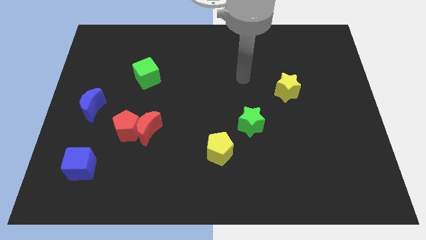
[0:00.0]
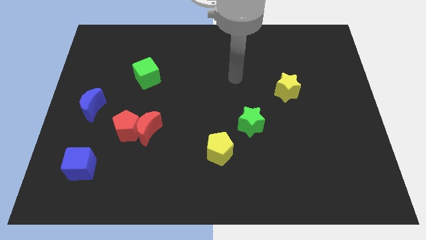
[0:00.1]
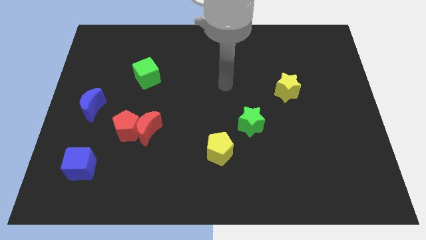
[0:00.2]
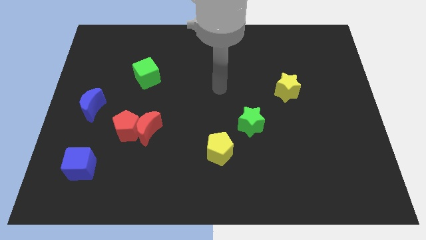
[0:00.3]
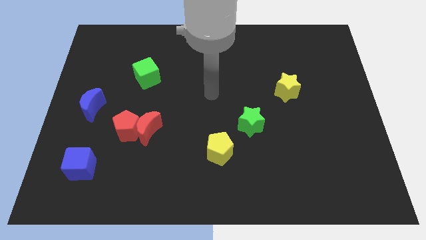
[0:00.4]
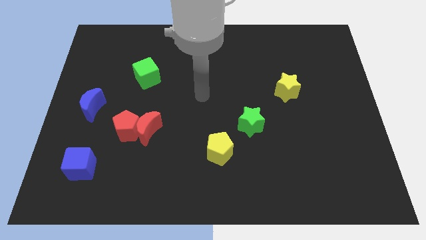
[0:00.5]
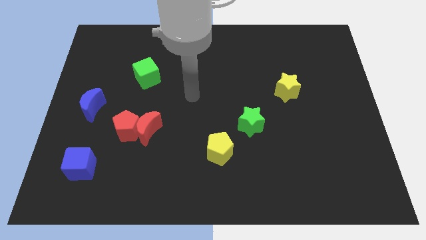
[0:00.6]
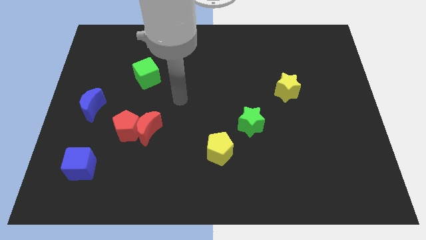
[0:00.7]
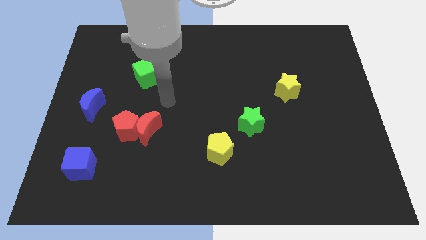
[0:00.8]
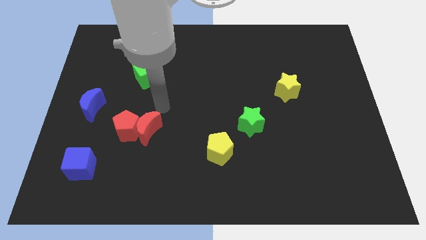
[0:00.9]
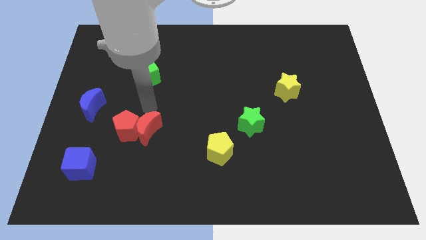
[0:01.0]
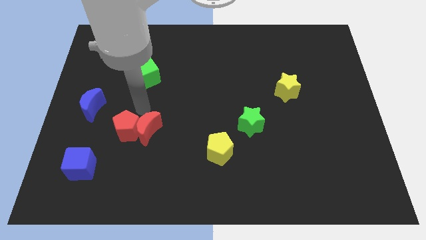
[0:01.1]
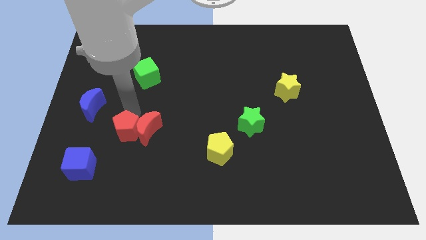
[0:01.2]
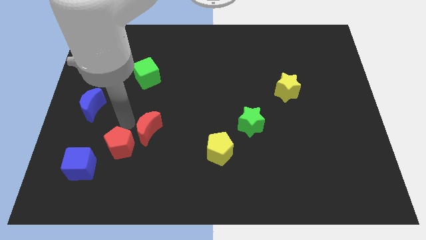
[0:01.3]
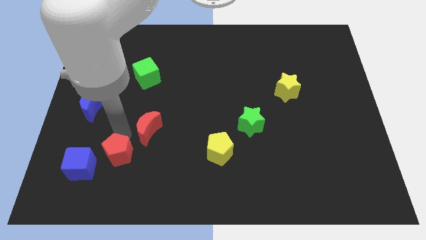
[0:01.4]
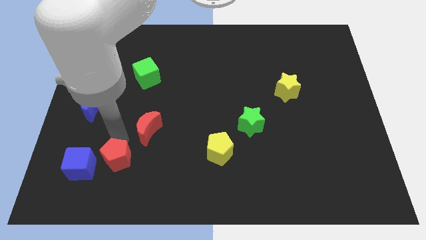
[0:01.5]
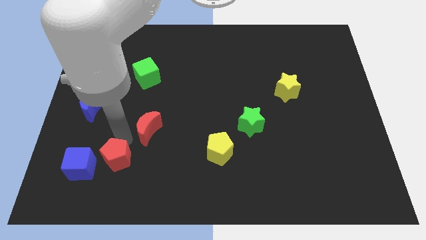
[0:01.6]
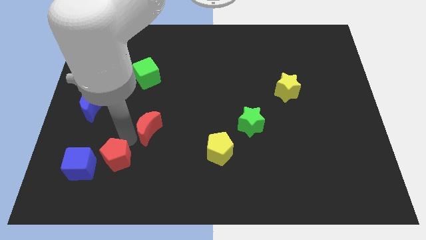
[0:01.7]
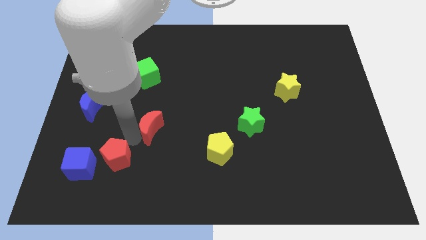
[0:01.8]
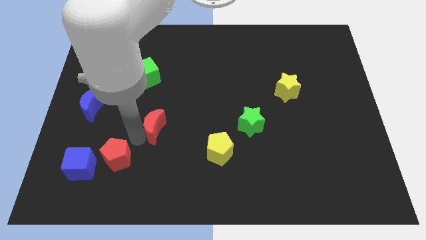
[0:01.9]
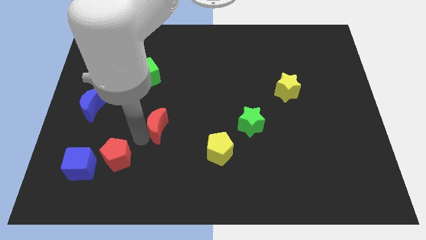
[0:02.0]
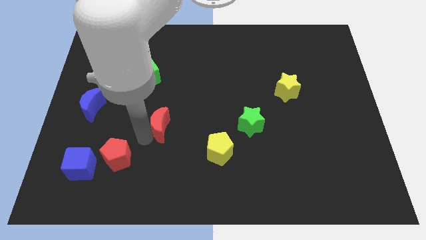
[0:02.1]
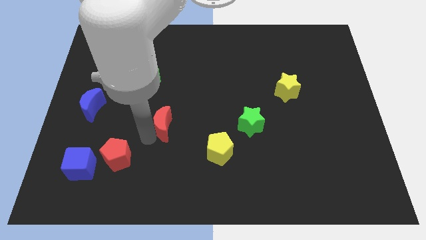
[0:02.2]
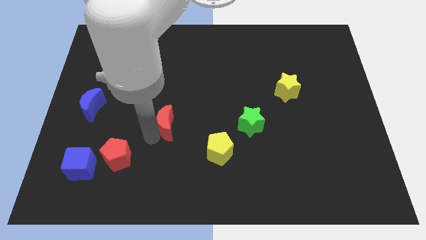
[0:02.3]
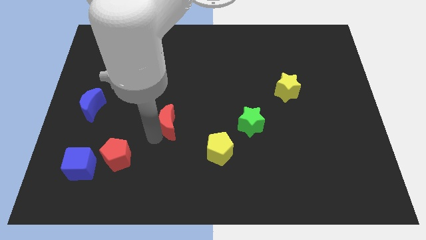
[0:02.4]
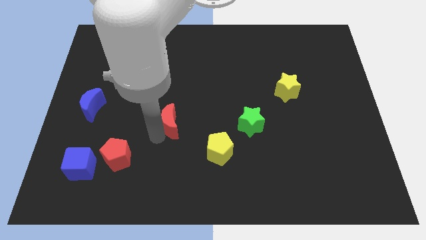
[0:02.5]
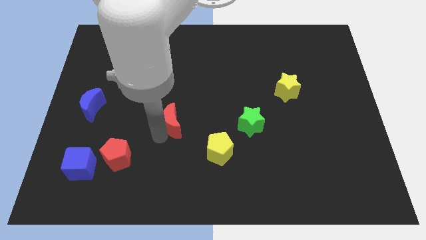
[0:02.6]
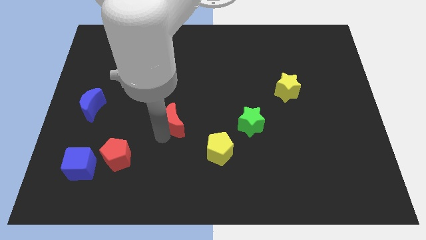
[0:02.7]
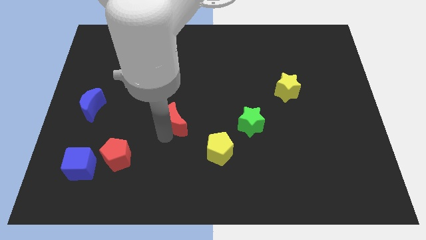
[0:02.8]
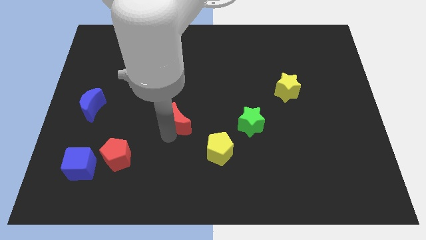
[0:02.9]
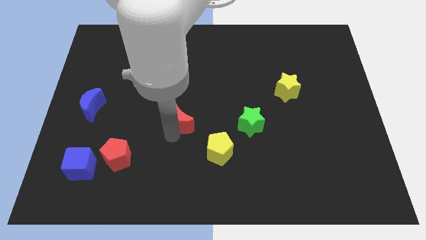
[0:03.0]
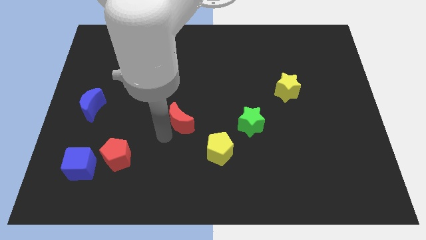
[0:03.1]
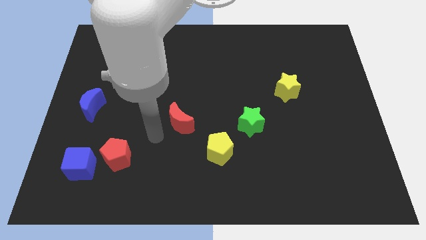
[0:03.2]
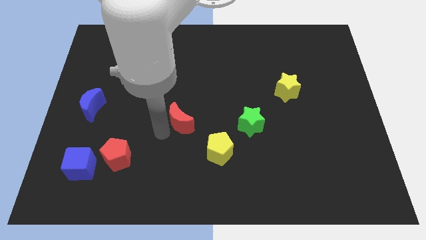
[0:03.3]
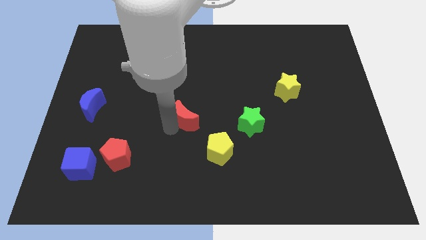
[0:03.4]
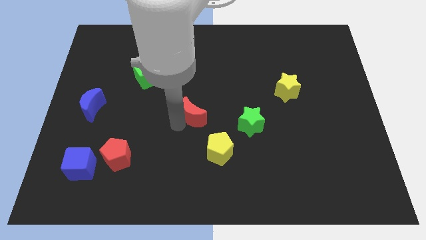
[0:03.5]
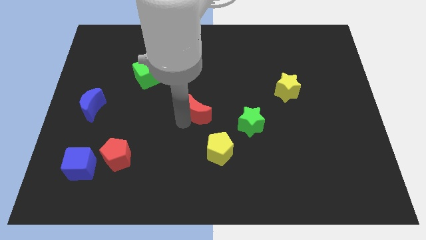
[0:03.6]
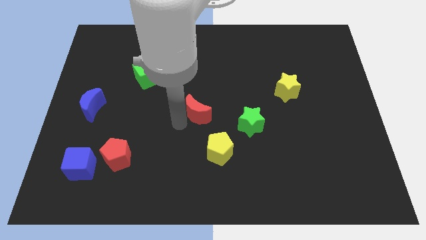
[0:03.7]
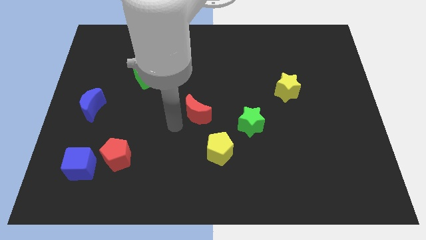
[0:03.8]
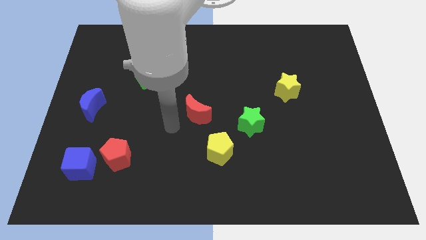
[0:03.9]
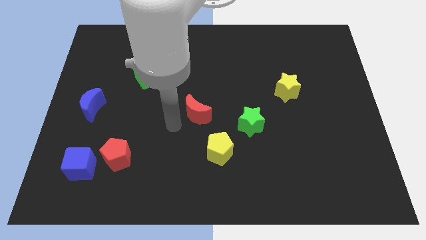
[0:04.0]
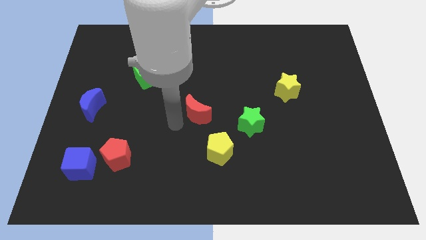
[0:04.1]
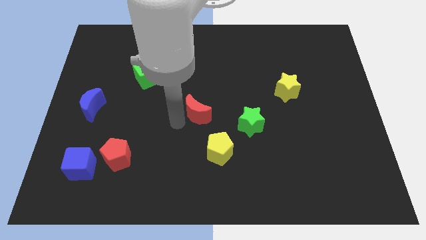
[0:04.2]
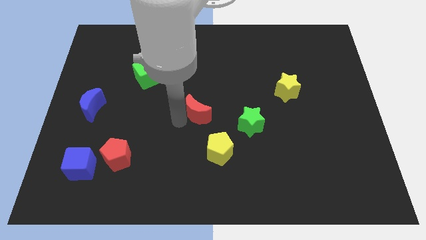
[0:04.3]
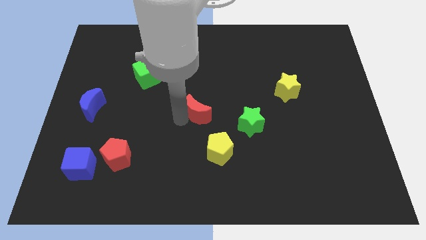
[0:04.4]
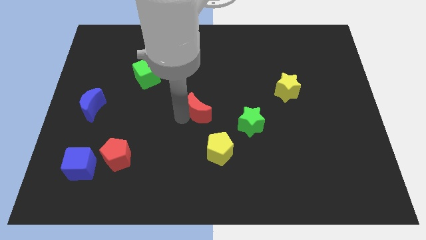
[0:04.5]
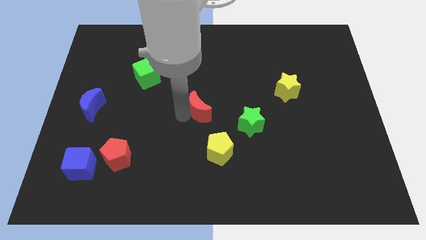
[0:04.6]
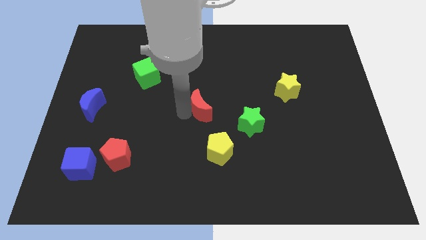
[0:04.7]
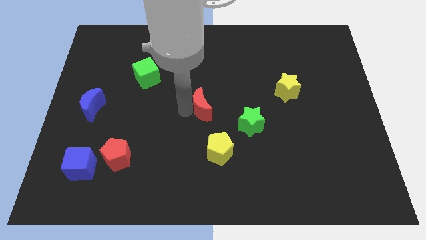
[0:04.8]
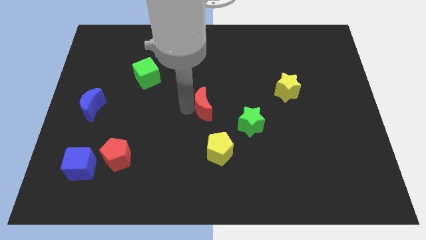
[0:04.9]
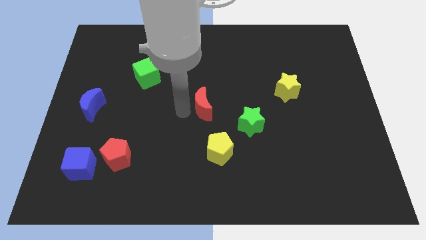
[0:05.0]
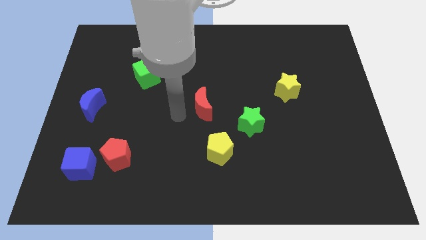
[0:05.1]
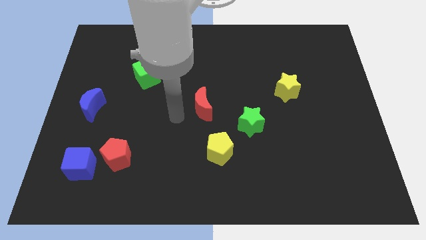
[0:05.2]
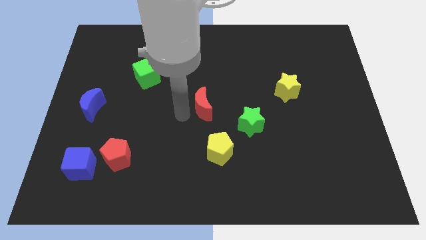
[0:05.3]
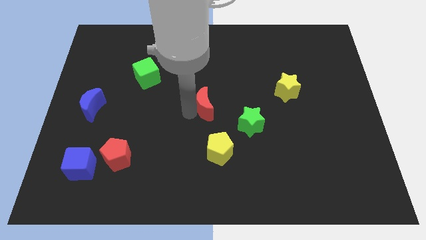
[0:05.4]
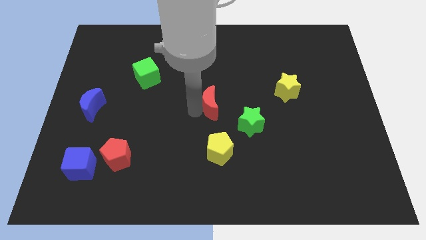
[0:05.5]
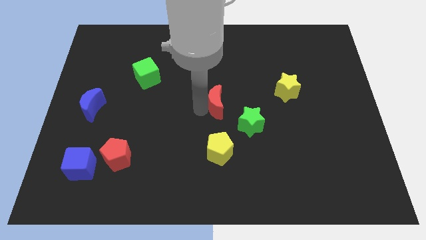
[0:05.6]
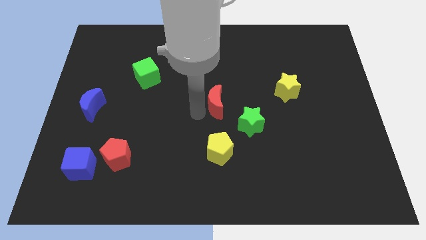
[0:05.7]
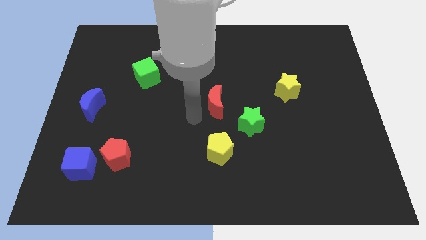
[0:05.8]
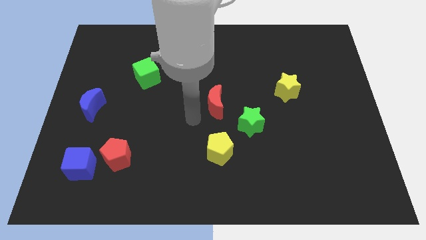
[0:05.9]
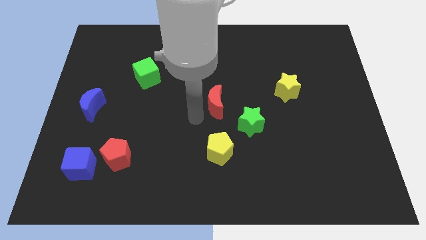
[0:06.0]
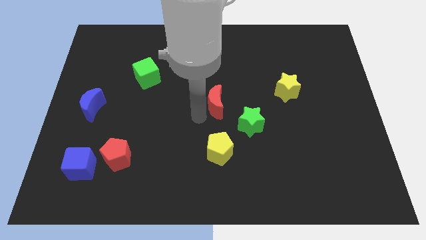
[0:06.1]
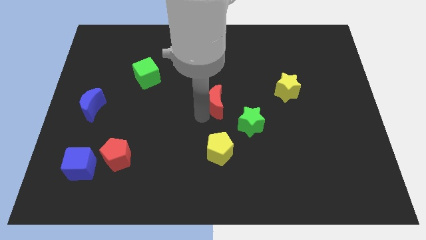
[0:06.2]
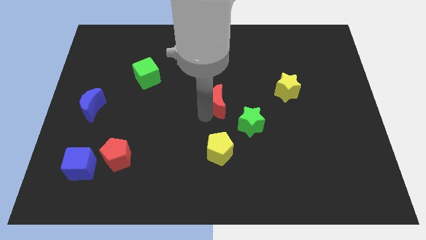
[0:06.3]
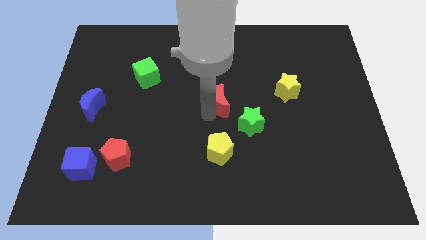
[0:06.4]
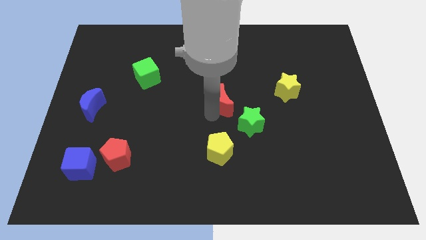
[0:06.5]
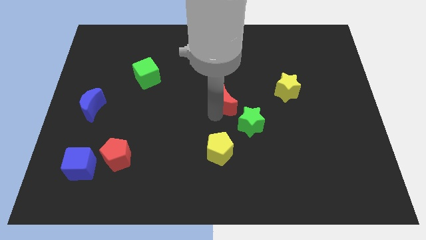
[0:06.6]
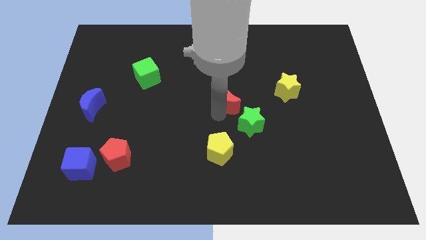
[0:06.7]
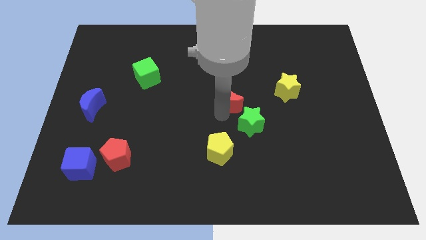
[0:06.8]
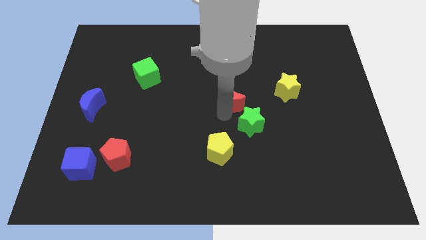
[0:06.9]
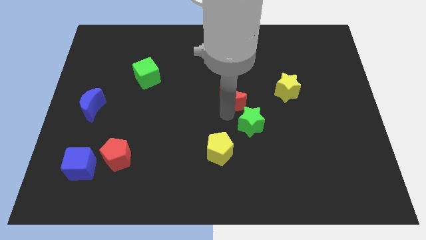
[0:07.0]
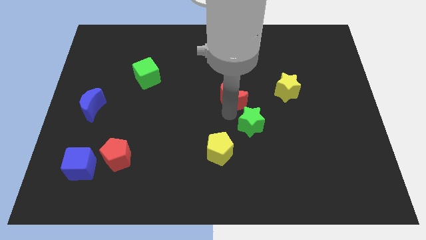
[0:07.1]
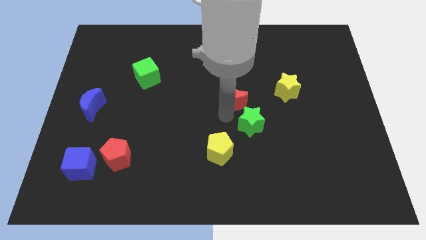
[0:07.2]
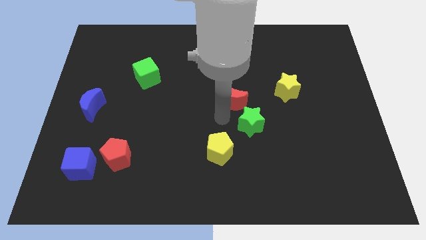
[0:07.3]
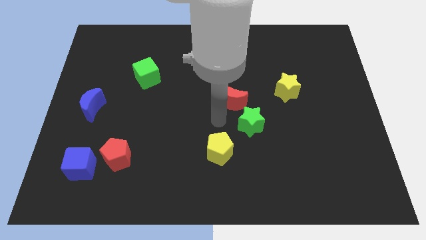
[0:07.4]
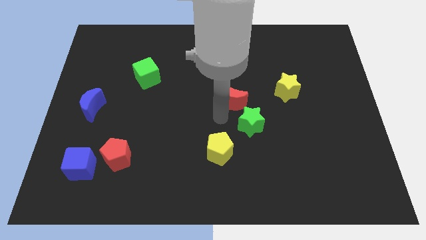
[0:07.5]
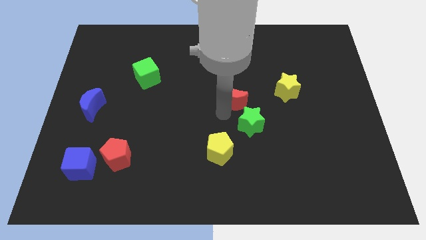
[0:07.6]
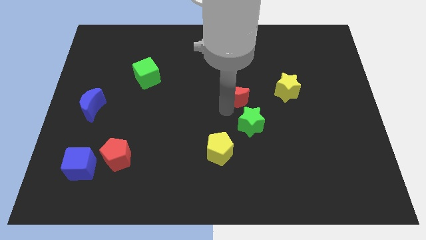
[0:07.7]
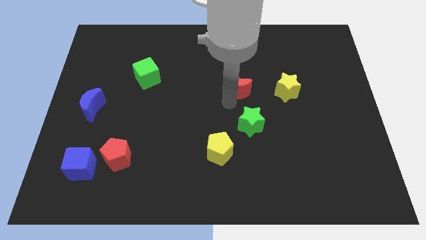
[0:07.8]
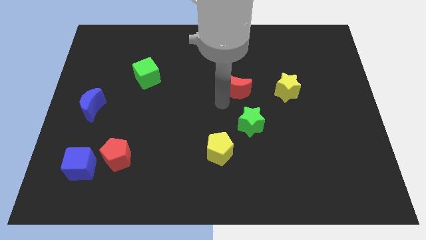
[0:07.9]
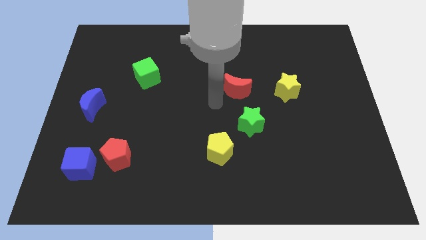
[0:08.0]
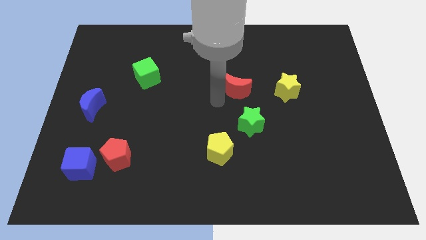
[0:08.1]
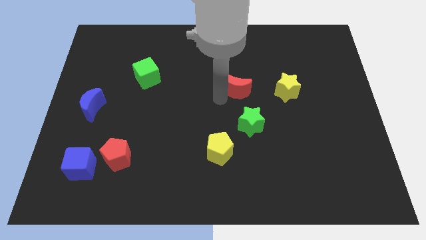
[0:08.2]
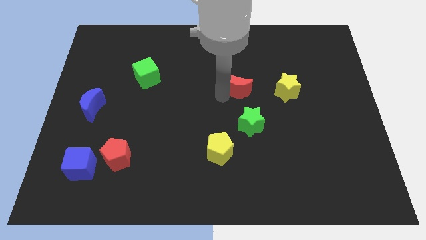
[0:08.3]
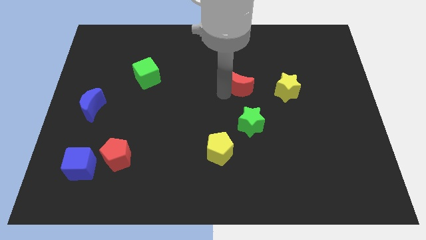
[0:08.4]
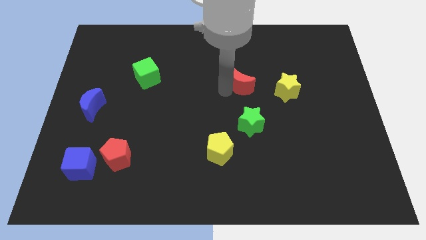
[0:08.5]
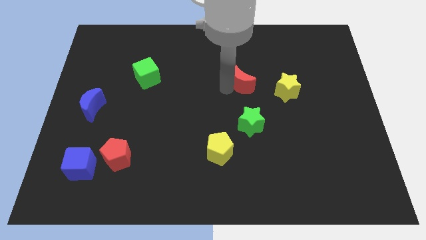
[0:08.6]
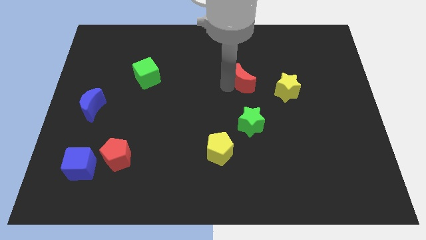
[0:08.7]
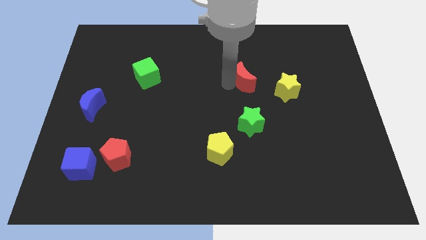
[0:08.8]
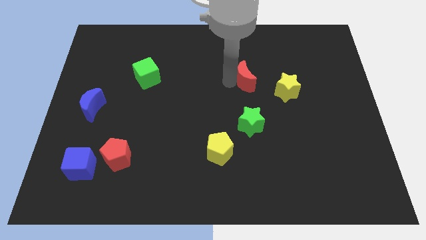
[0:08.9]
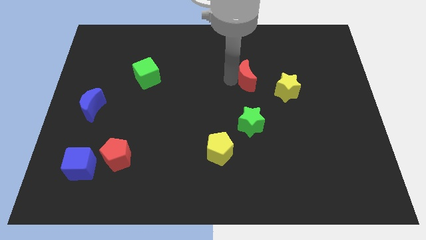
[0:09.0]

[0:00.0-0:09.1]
put the red moon to the top left of the yellow star
